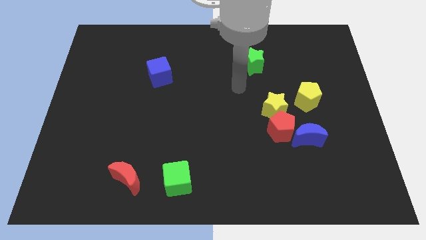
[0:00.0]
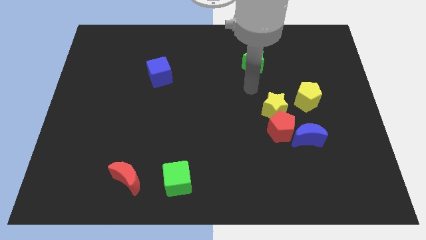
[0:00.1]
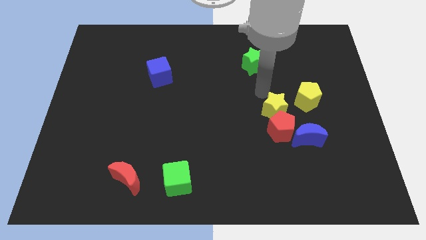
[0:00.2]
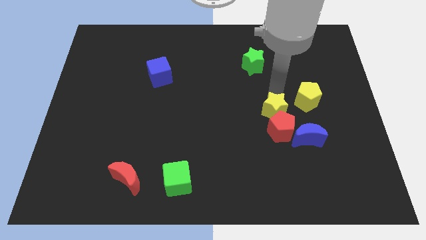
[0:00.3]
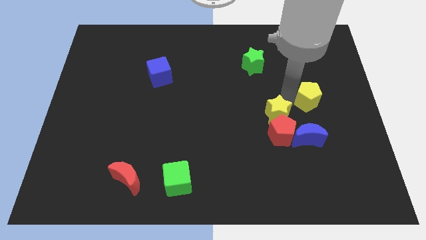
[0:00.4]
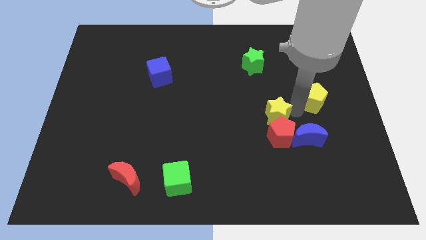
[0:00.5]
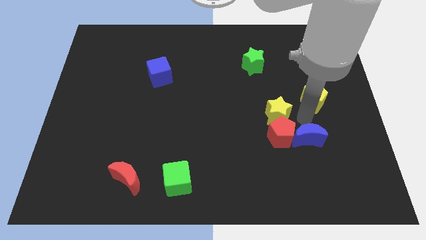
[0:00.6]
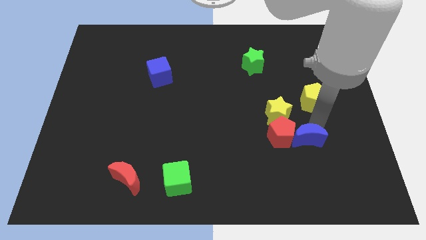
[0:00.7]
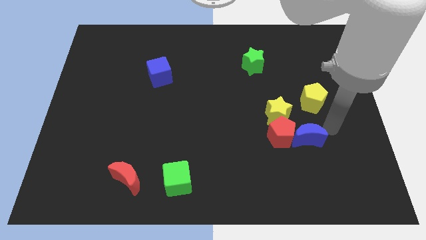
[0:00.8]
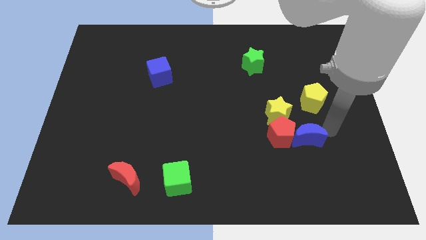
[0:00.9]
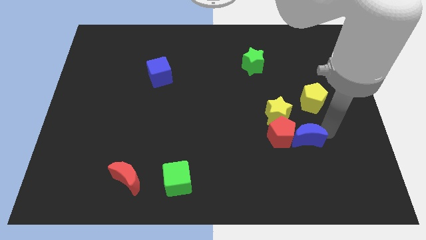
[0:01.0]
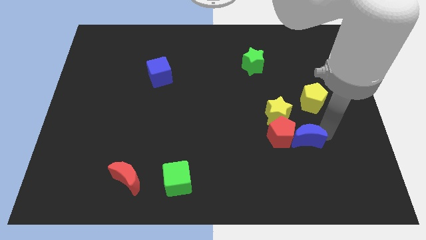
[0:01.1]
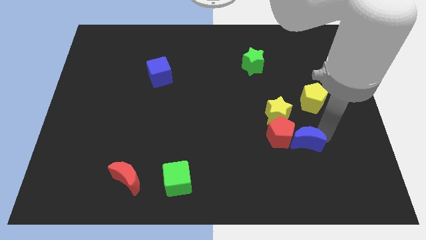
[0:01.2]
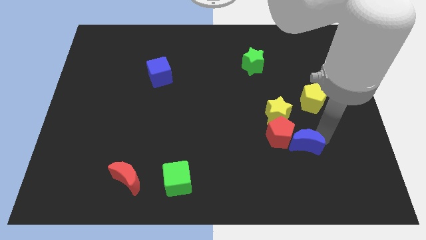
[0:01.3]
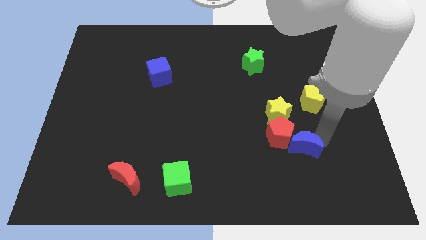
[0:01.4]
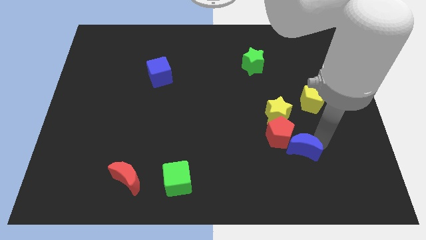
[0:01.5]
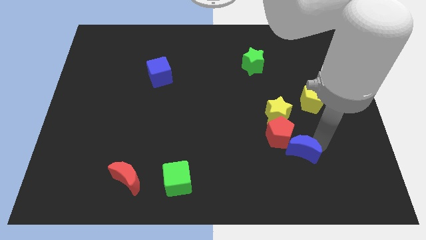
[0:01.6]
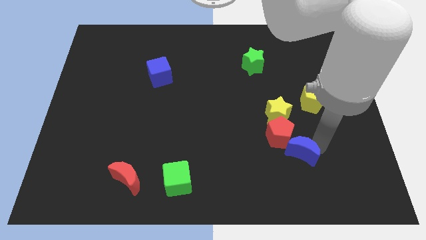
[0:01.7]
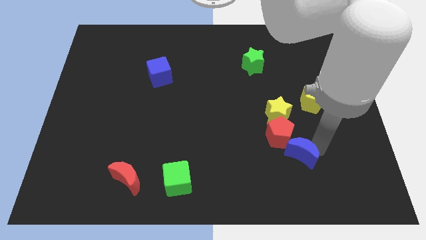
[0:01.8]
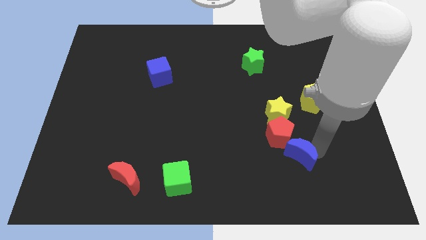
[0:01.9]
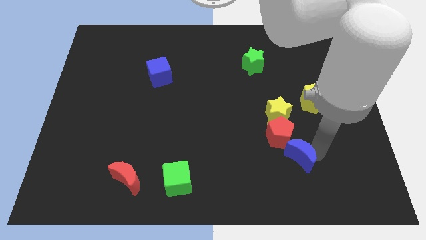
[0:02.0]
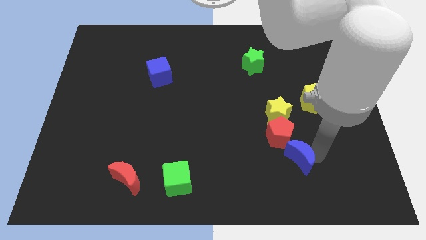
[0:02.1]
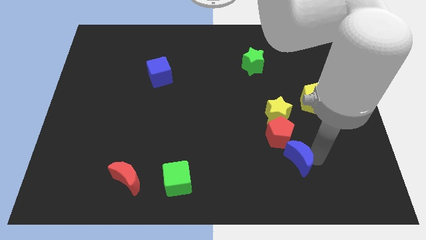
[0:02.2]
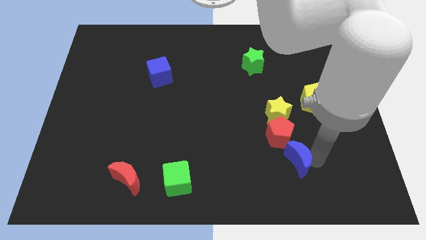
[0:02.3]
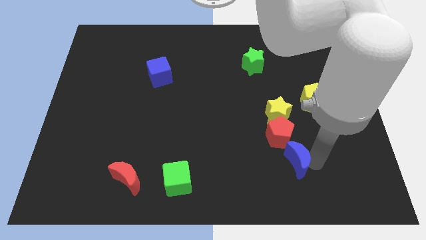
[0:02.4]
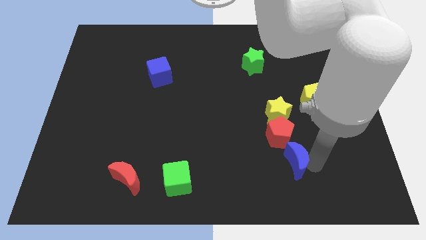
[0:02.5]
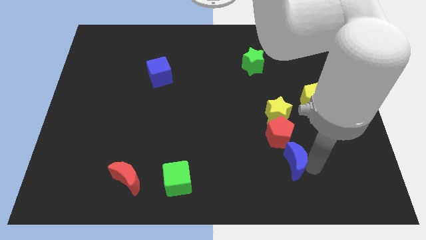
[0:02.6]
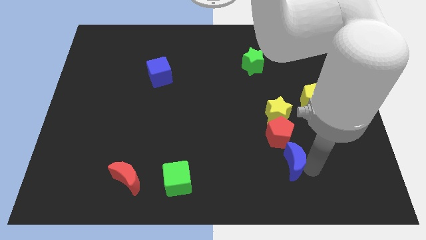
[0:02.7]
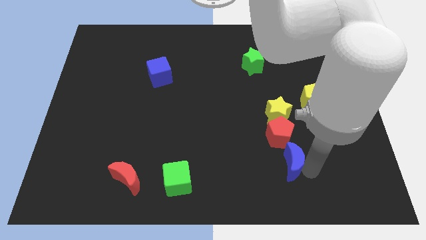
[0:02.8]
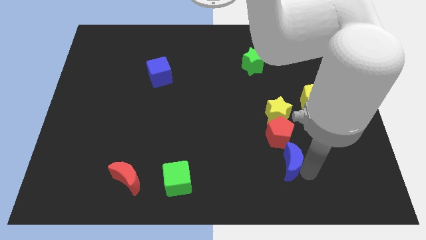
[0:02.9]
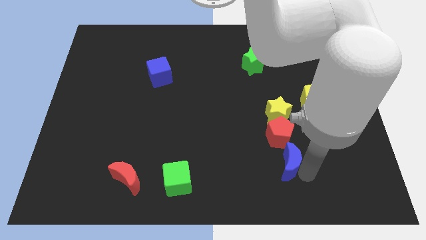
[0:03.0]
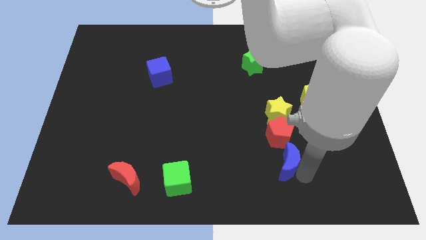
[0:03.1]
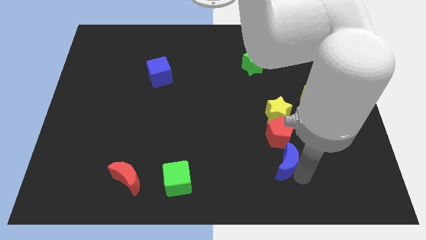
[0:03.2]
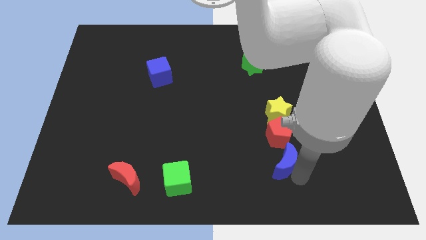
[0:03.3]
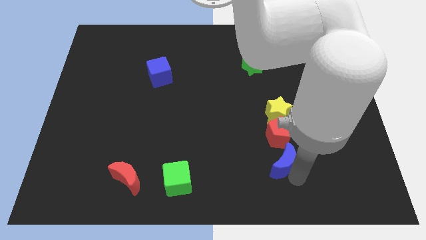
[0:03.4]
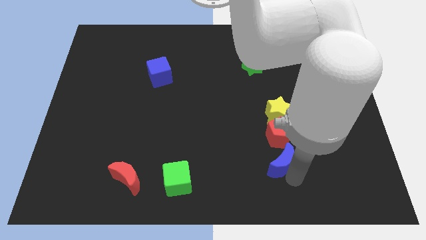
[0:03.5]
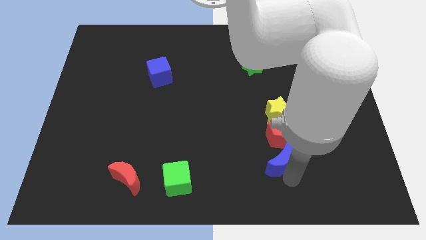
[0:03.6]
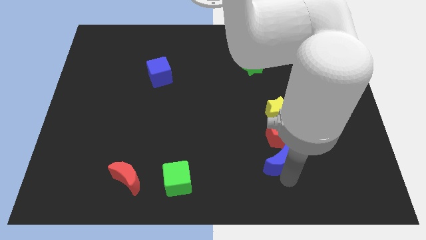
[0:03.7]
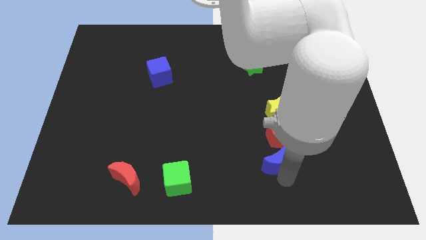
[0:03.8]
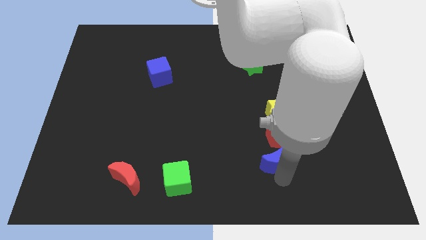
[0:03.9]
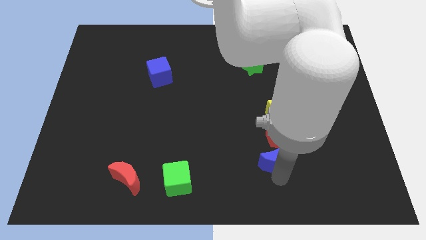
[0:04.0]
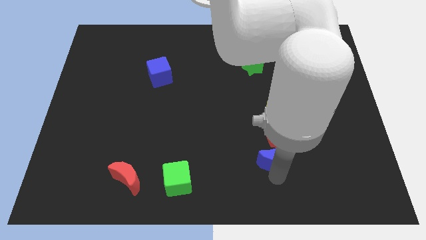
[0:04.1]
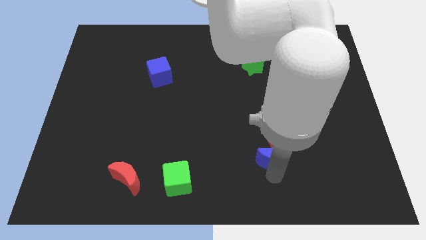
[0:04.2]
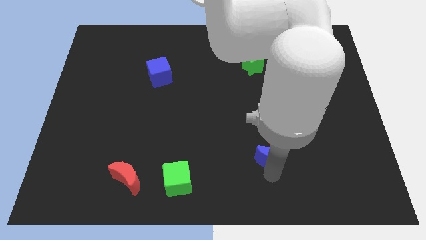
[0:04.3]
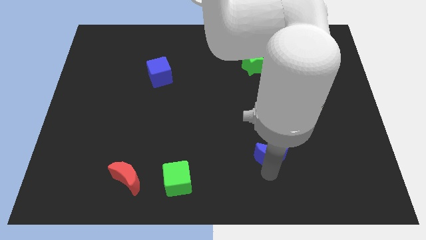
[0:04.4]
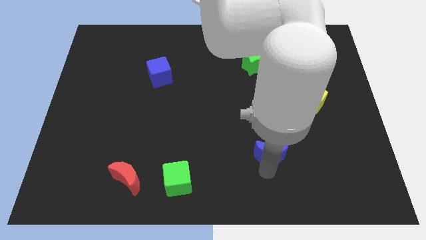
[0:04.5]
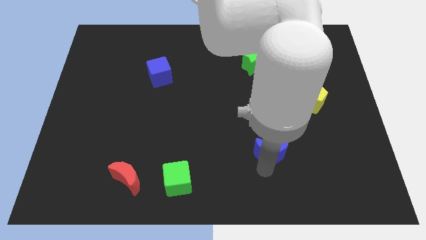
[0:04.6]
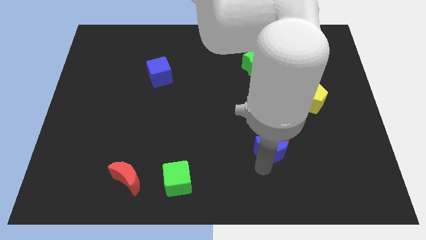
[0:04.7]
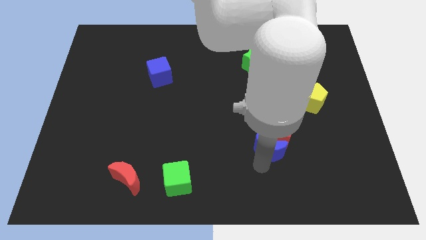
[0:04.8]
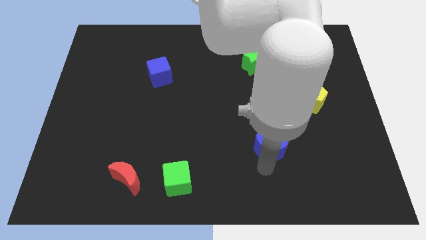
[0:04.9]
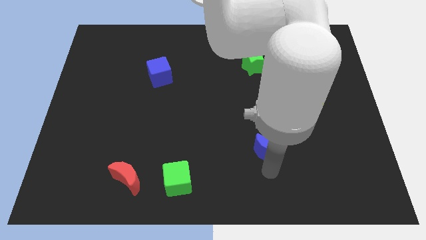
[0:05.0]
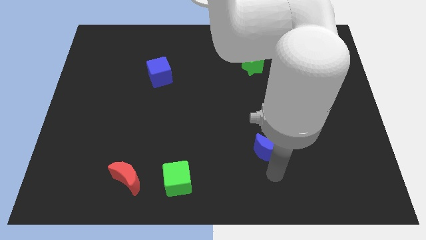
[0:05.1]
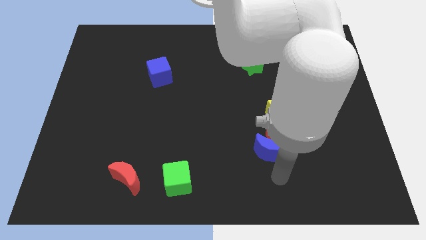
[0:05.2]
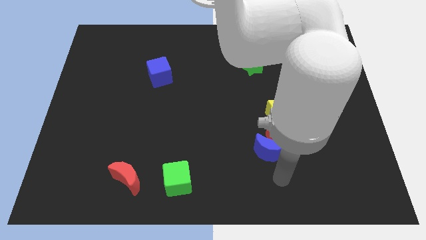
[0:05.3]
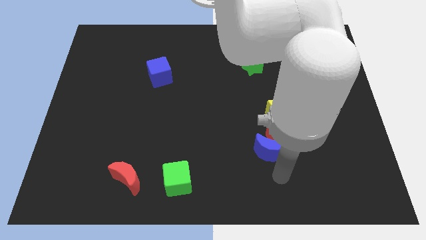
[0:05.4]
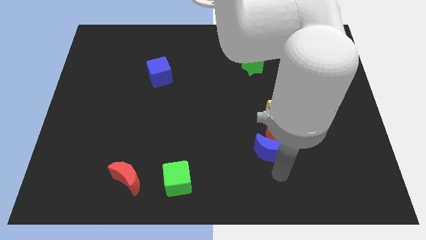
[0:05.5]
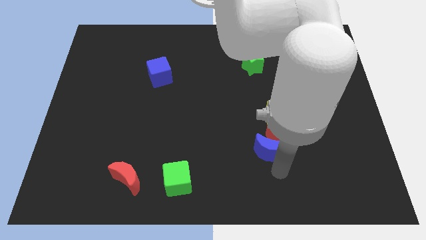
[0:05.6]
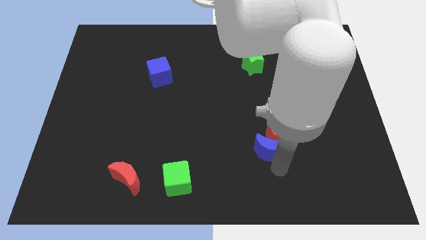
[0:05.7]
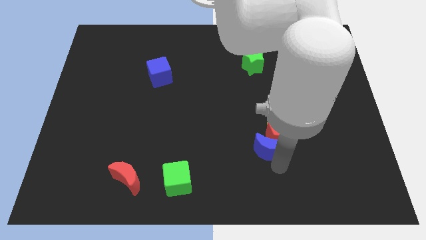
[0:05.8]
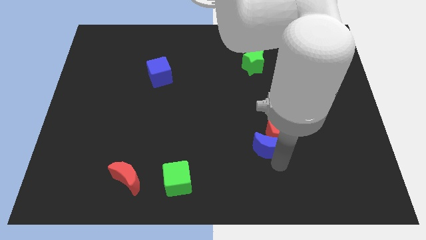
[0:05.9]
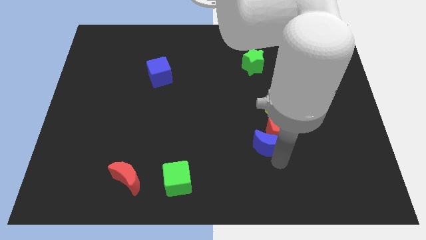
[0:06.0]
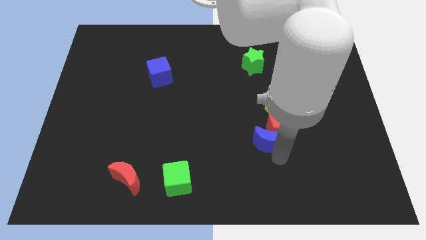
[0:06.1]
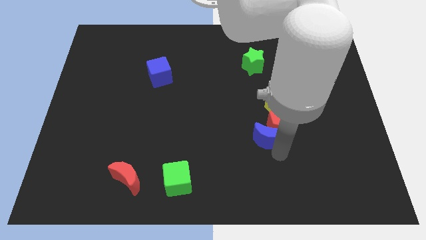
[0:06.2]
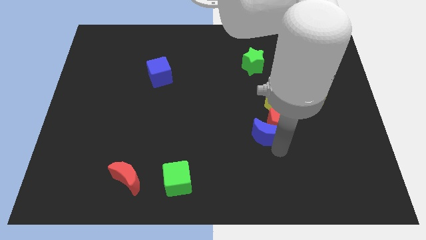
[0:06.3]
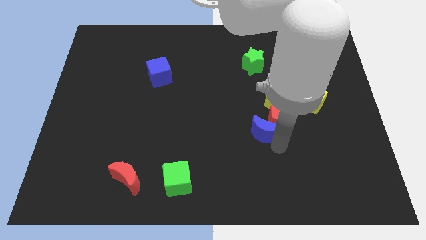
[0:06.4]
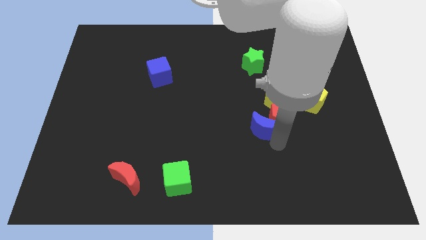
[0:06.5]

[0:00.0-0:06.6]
slightly move the blue moon upwards and left diagonally

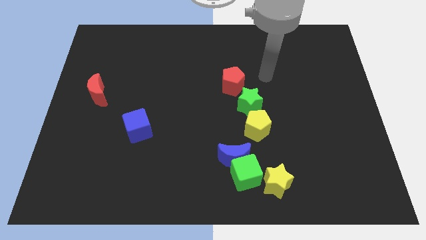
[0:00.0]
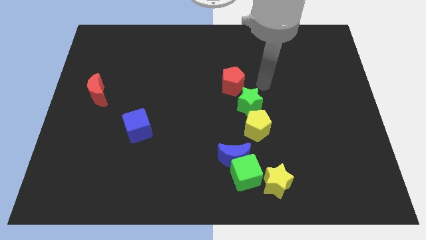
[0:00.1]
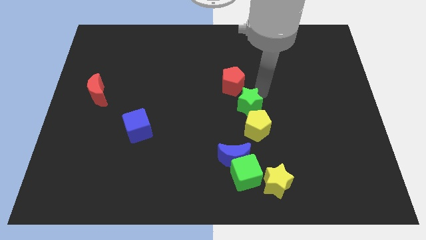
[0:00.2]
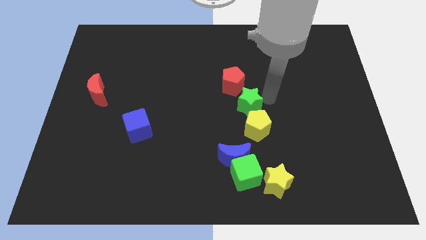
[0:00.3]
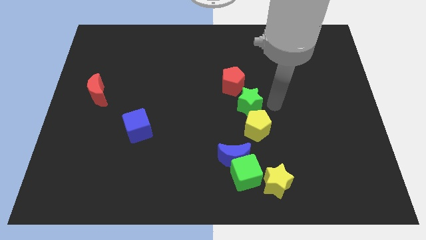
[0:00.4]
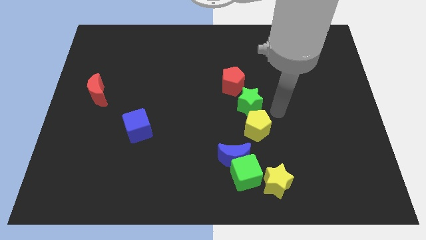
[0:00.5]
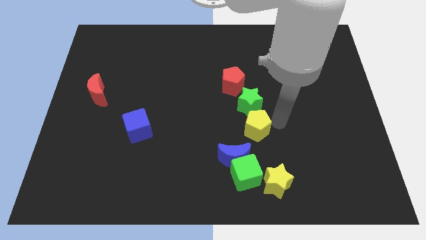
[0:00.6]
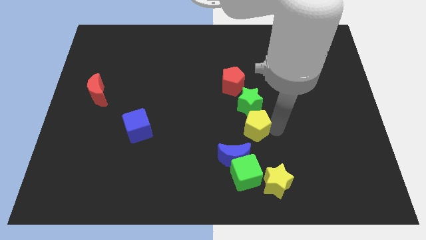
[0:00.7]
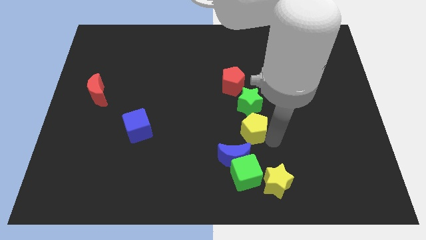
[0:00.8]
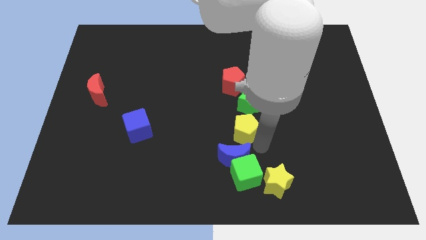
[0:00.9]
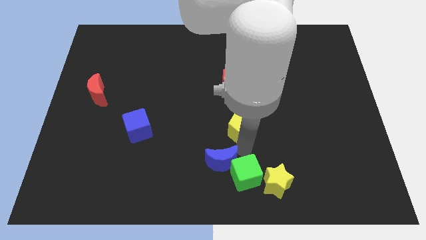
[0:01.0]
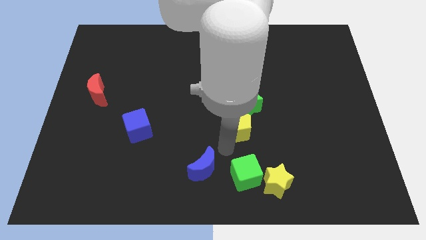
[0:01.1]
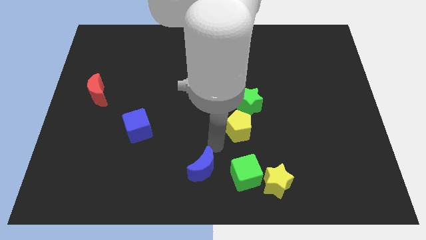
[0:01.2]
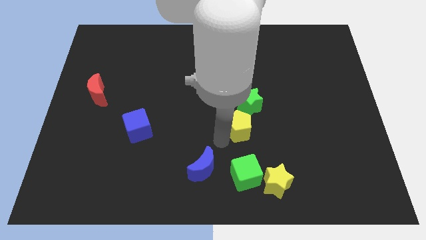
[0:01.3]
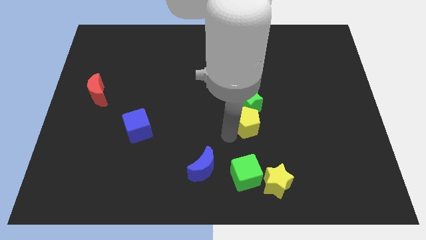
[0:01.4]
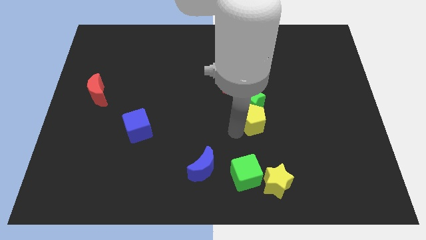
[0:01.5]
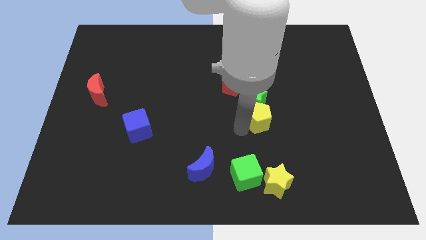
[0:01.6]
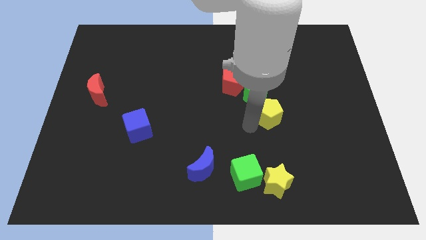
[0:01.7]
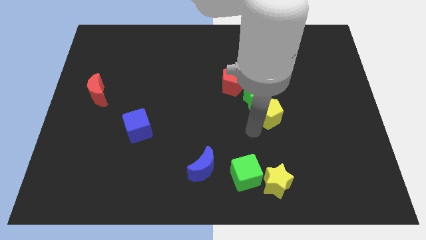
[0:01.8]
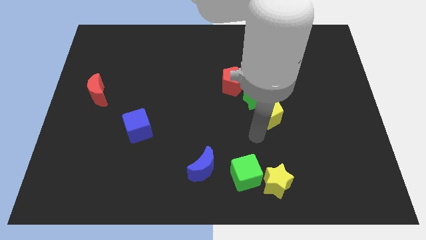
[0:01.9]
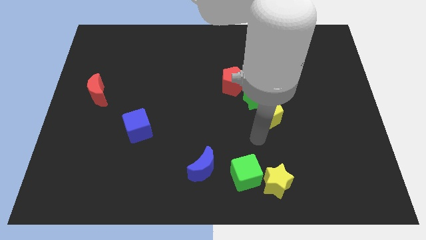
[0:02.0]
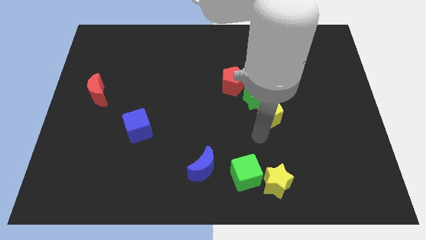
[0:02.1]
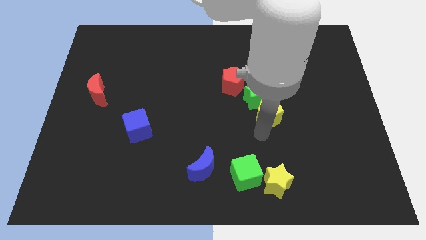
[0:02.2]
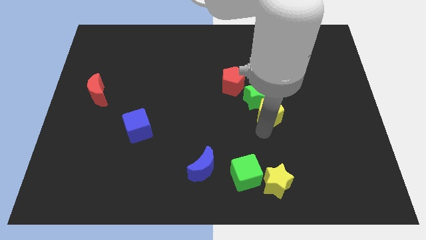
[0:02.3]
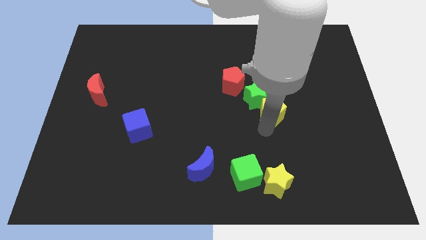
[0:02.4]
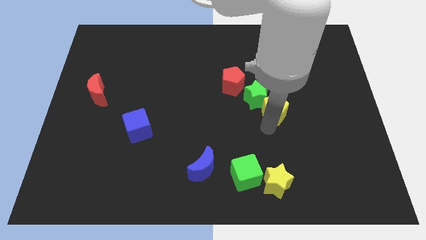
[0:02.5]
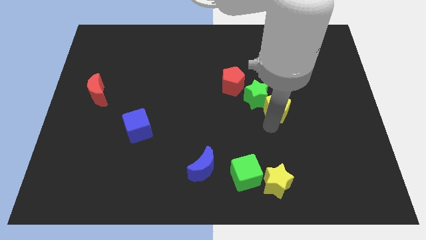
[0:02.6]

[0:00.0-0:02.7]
push the yellow pentagon slightly upwards and then to the right
